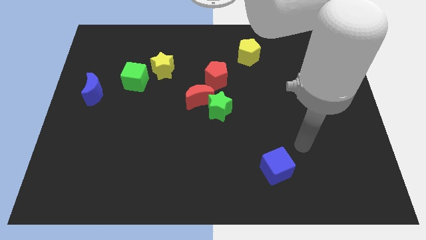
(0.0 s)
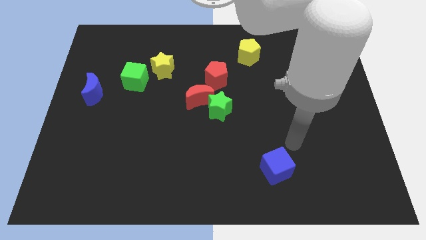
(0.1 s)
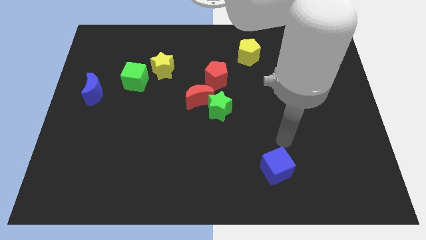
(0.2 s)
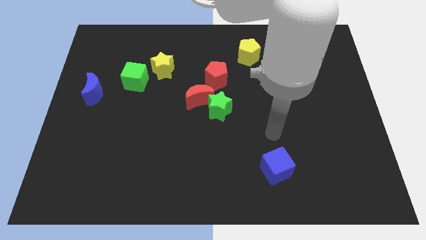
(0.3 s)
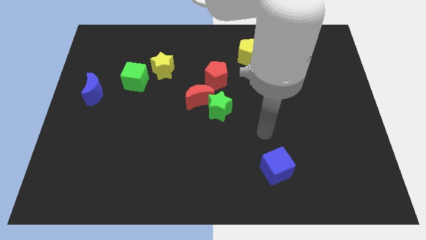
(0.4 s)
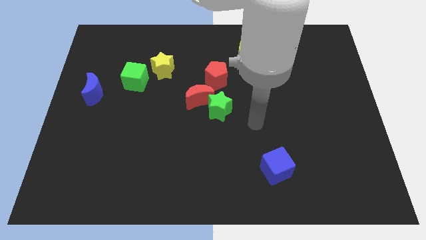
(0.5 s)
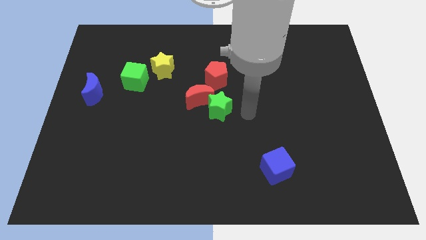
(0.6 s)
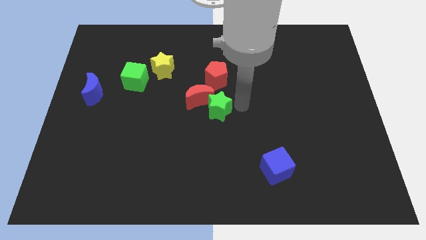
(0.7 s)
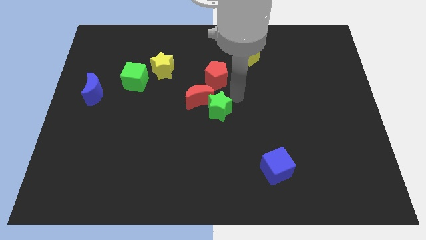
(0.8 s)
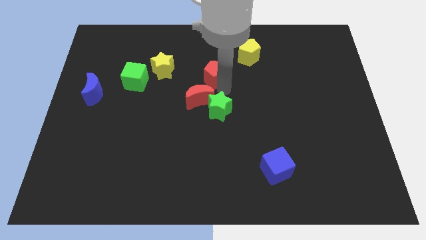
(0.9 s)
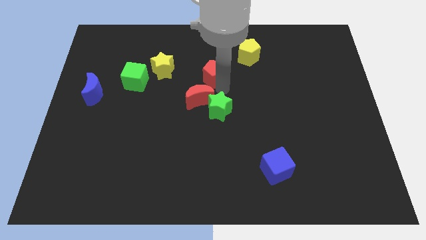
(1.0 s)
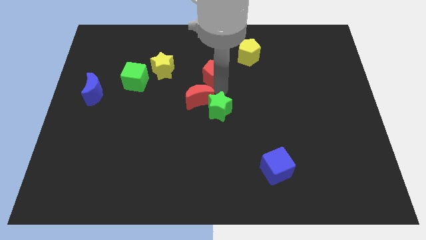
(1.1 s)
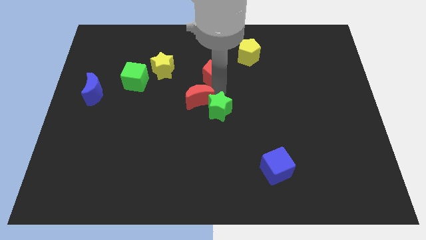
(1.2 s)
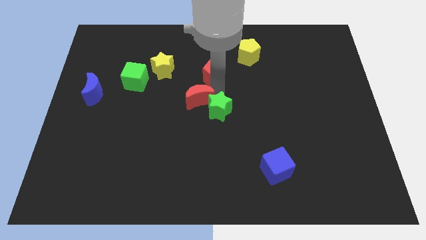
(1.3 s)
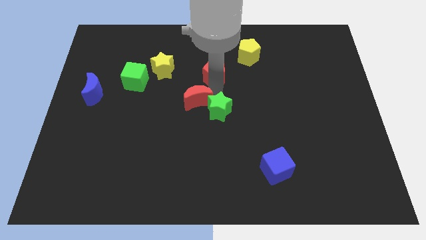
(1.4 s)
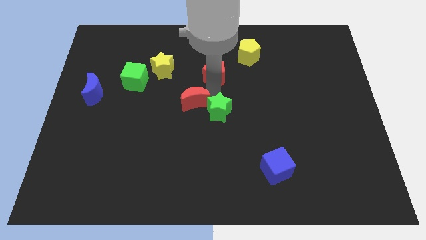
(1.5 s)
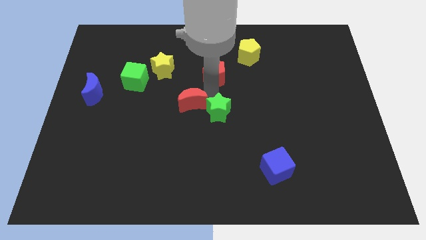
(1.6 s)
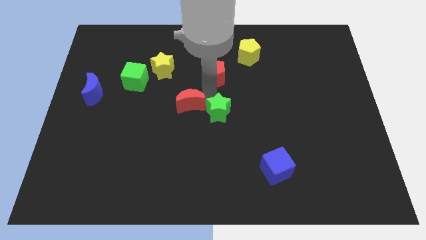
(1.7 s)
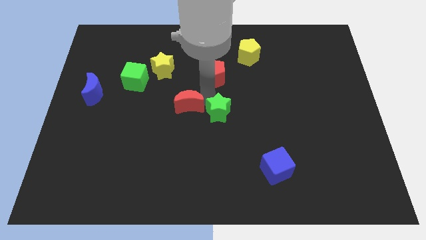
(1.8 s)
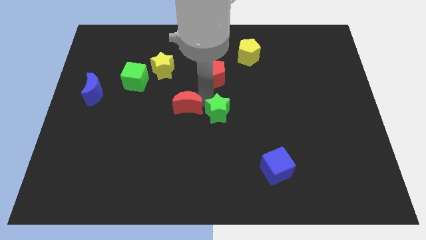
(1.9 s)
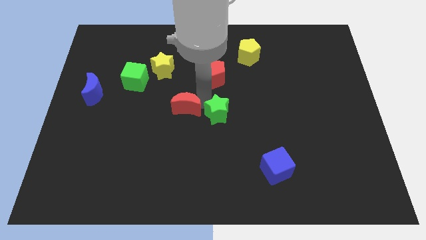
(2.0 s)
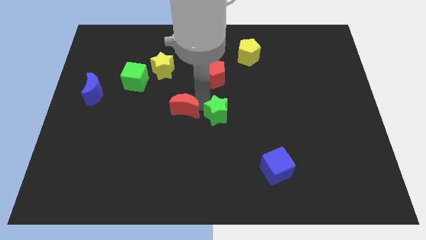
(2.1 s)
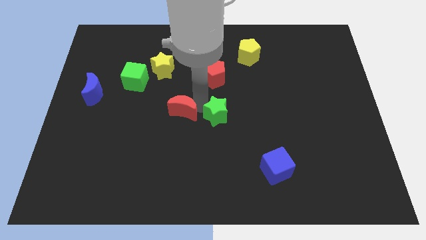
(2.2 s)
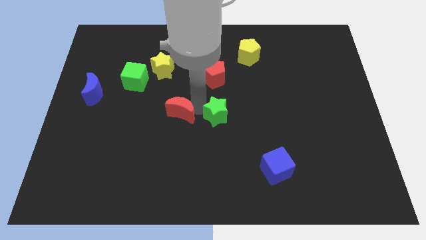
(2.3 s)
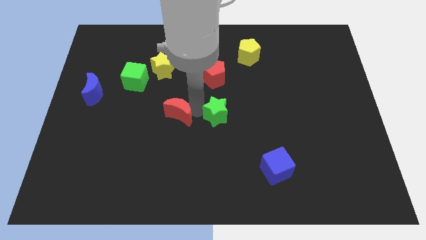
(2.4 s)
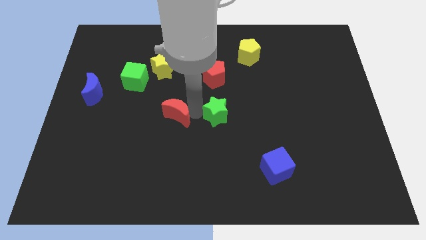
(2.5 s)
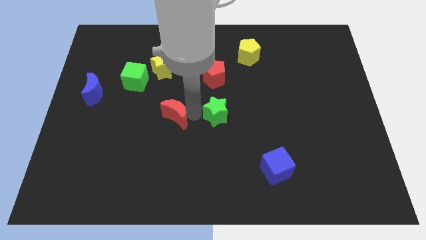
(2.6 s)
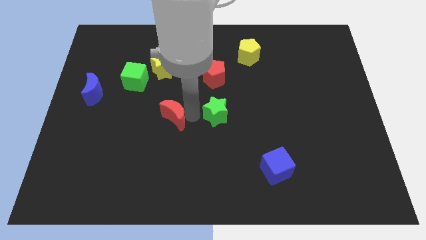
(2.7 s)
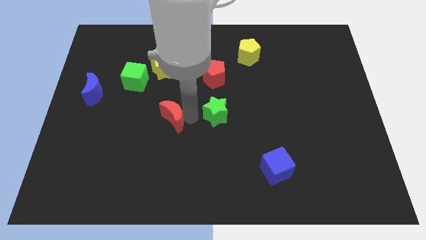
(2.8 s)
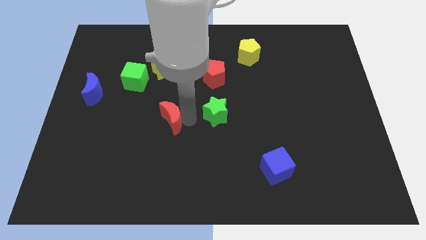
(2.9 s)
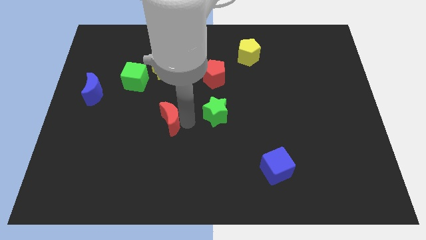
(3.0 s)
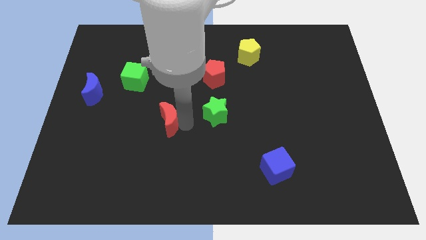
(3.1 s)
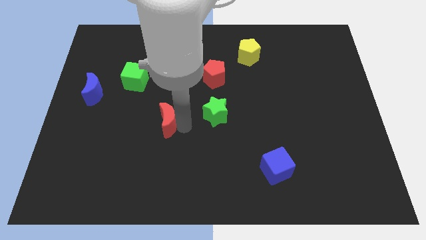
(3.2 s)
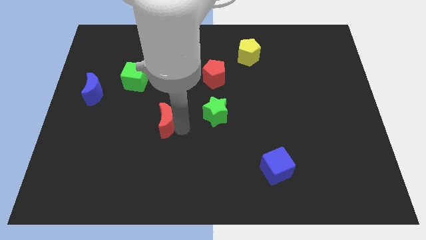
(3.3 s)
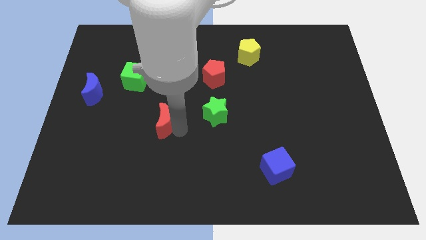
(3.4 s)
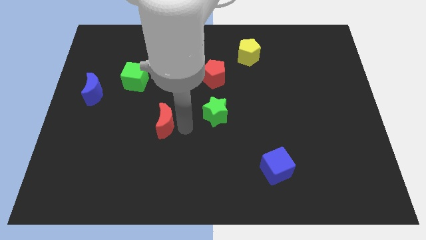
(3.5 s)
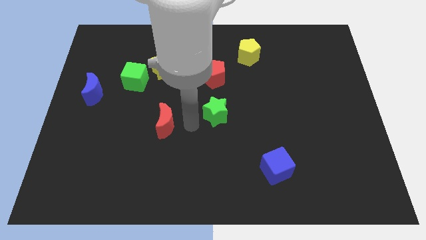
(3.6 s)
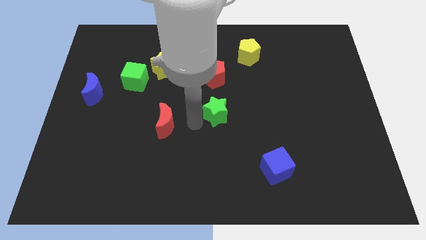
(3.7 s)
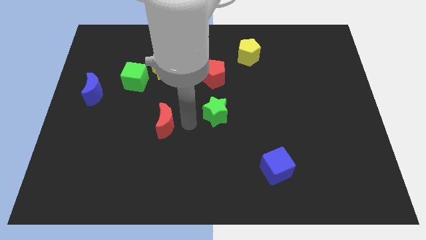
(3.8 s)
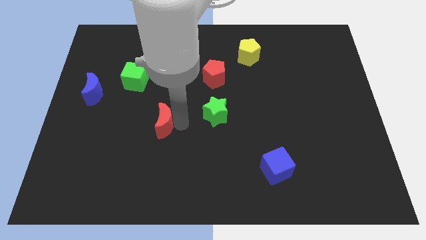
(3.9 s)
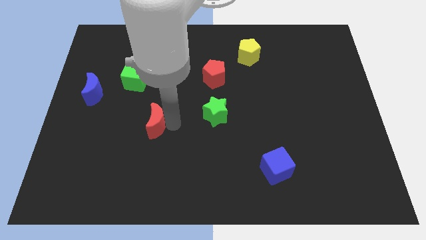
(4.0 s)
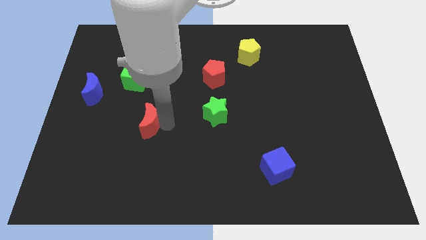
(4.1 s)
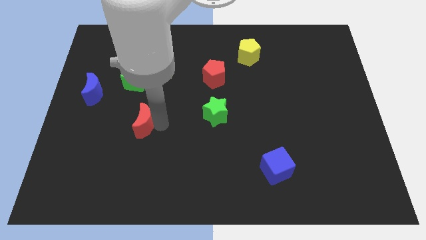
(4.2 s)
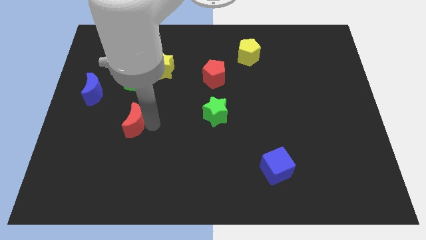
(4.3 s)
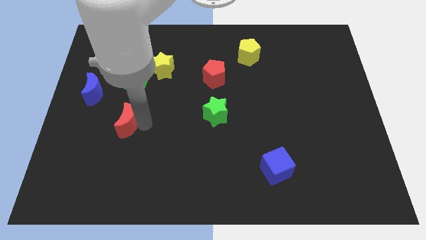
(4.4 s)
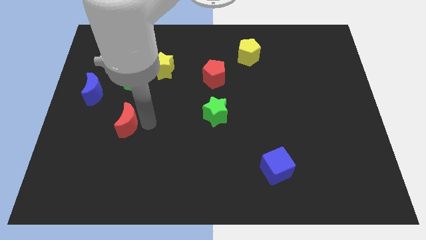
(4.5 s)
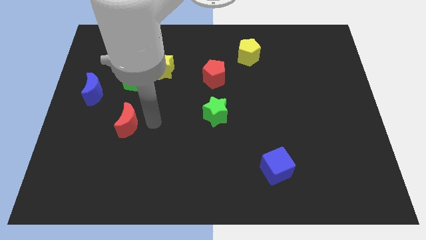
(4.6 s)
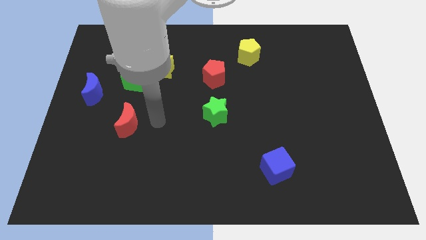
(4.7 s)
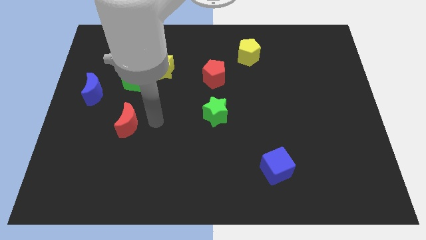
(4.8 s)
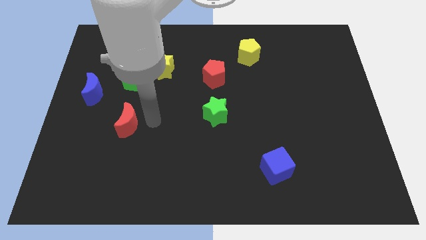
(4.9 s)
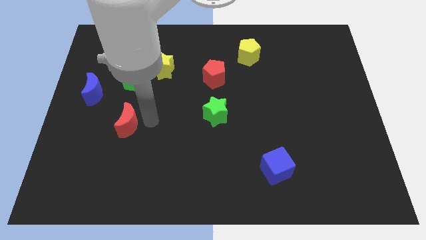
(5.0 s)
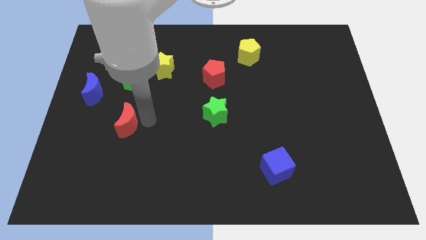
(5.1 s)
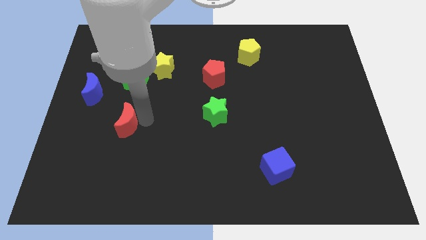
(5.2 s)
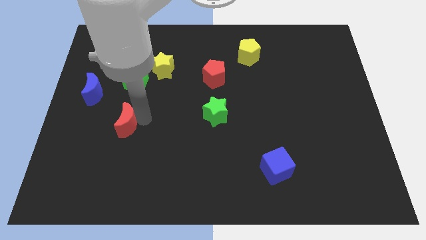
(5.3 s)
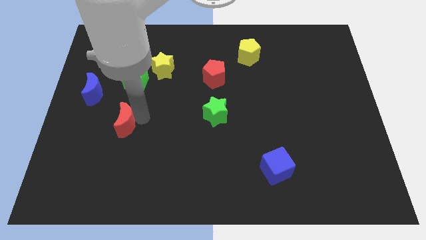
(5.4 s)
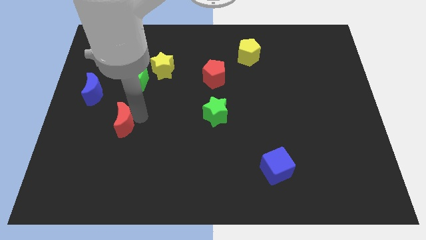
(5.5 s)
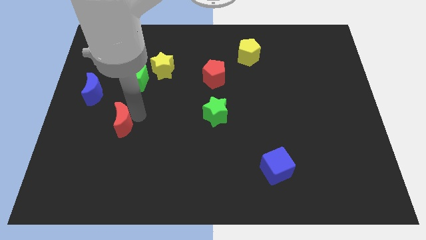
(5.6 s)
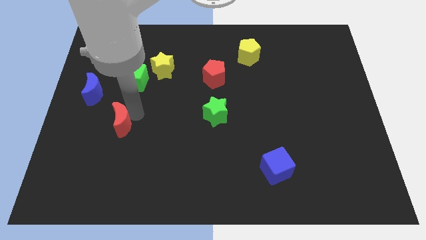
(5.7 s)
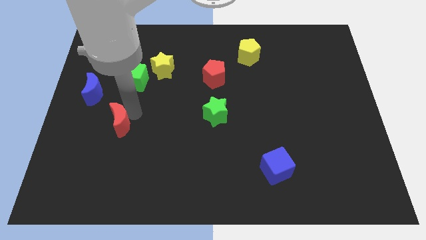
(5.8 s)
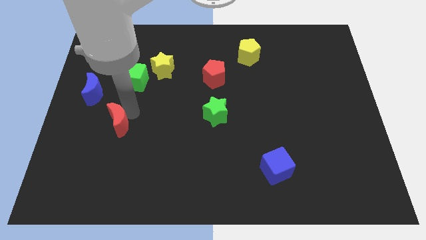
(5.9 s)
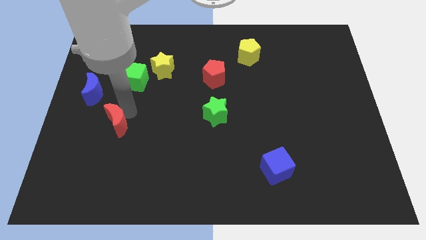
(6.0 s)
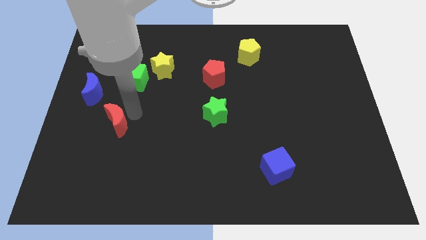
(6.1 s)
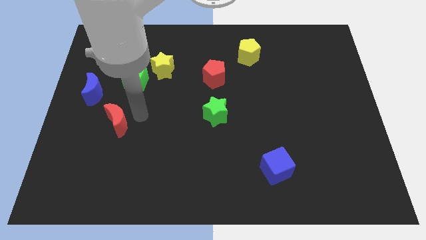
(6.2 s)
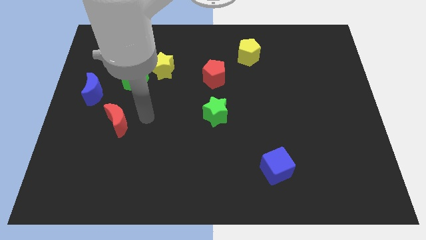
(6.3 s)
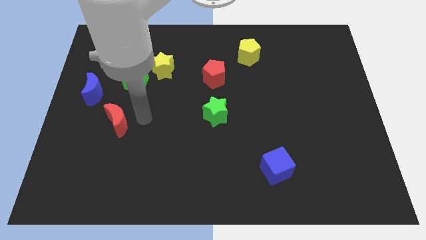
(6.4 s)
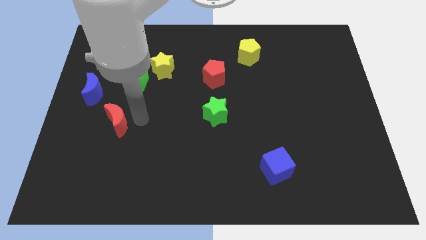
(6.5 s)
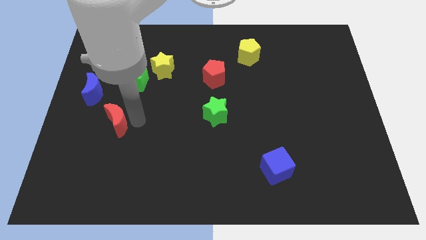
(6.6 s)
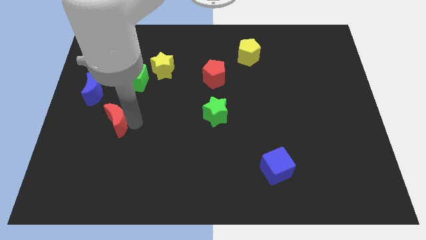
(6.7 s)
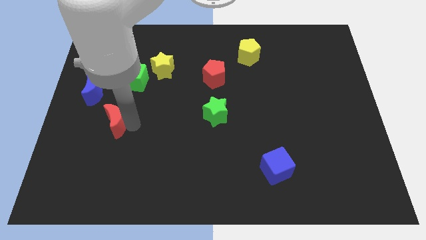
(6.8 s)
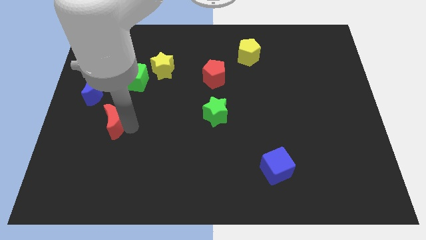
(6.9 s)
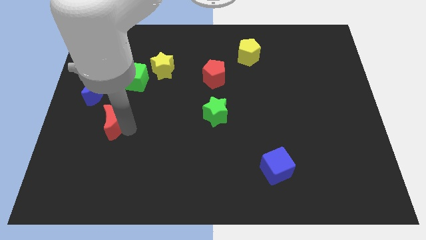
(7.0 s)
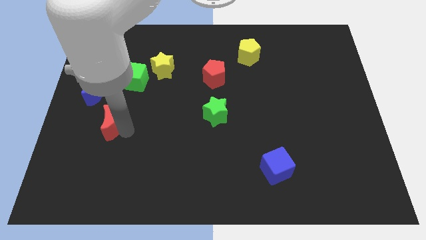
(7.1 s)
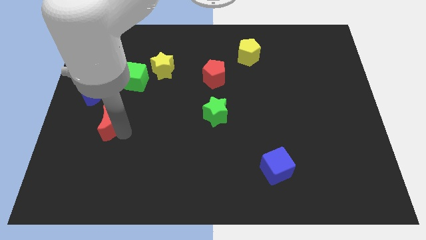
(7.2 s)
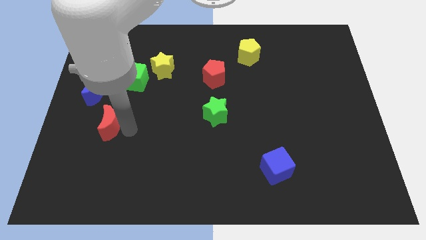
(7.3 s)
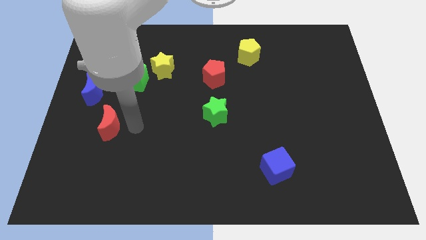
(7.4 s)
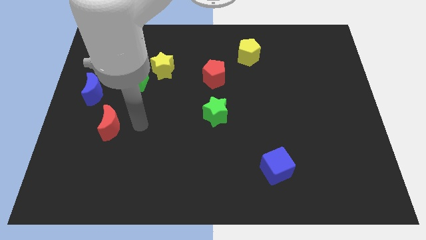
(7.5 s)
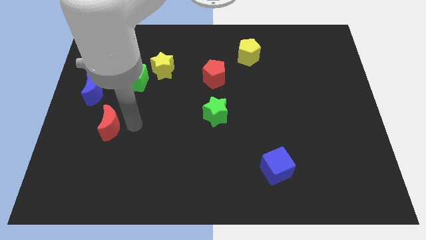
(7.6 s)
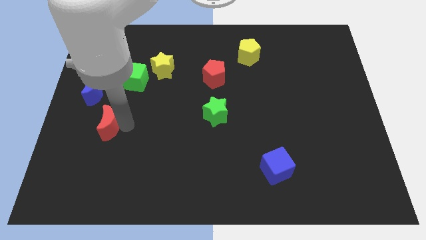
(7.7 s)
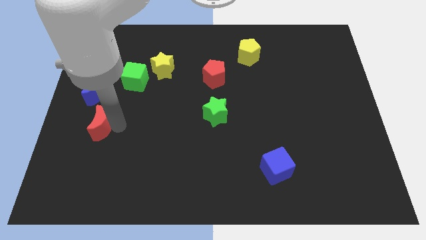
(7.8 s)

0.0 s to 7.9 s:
put the red moon below the blue moon
